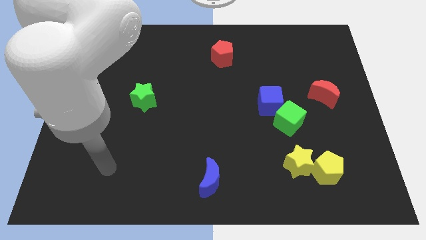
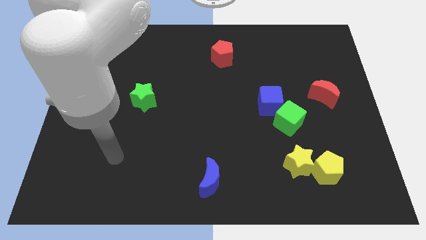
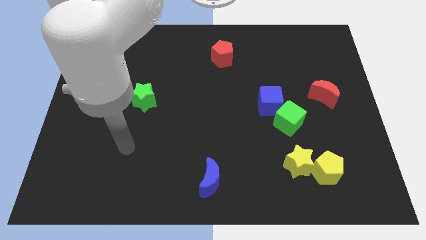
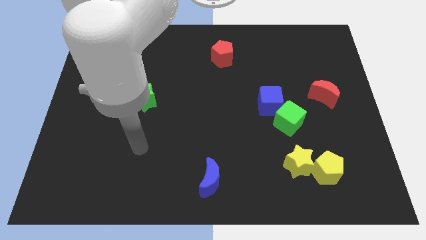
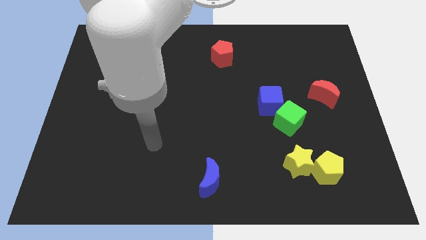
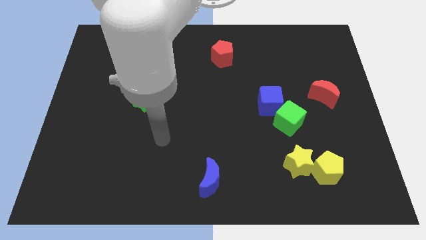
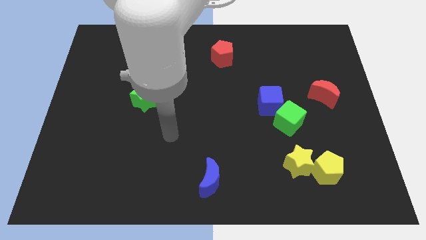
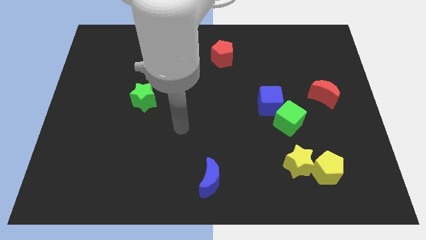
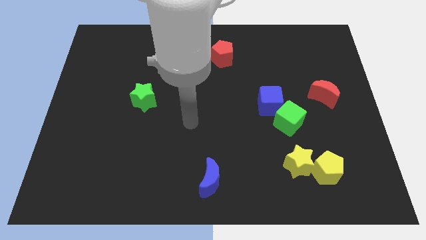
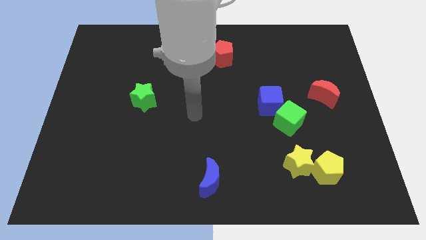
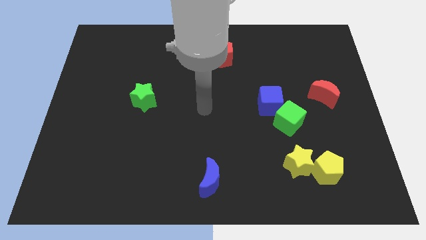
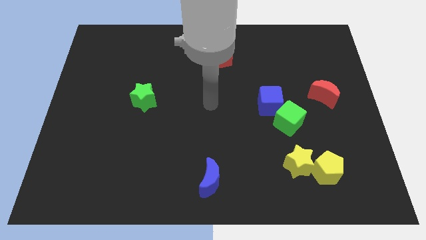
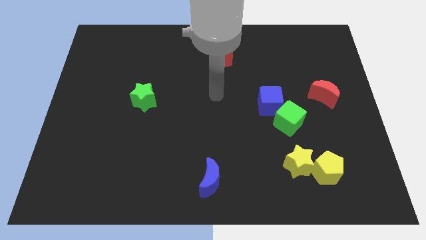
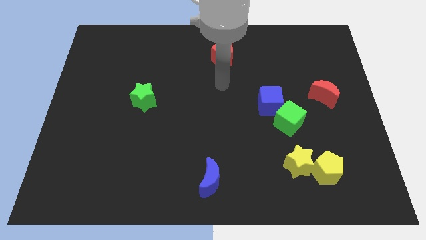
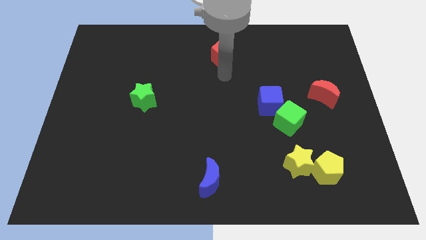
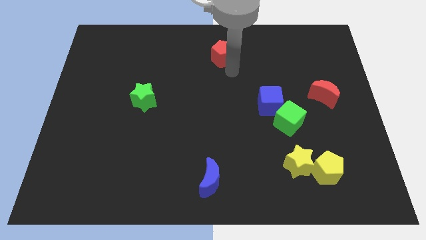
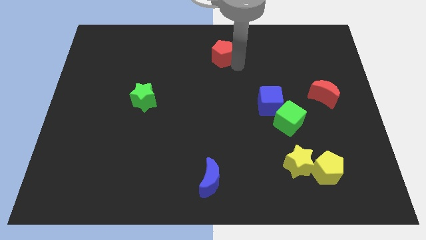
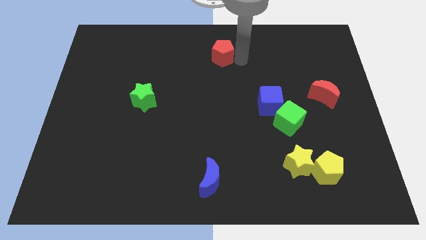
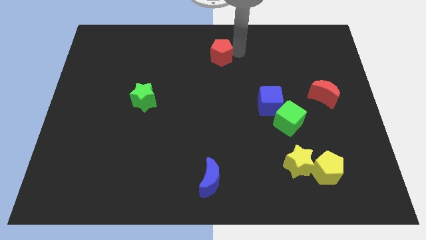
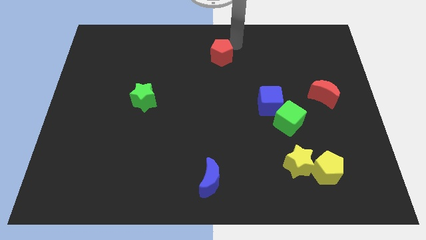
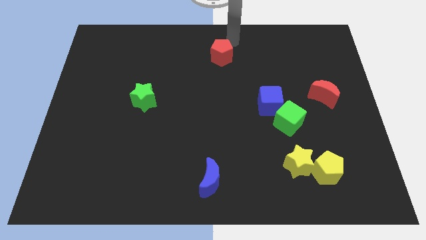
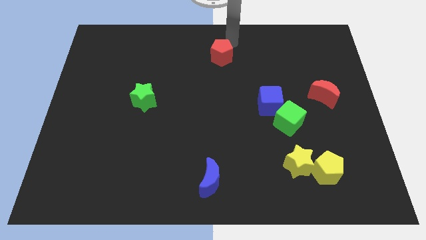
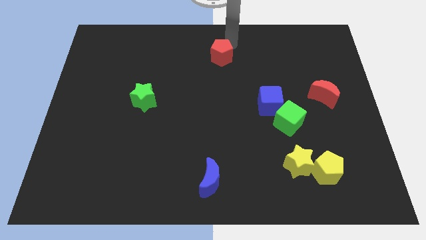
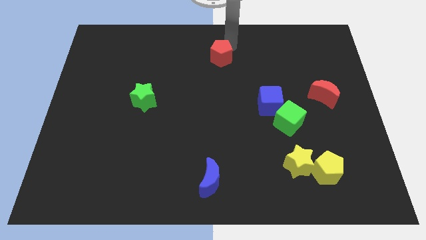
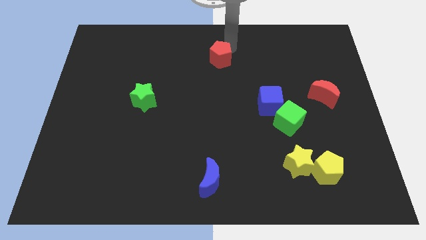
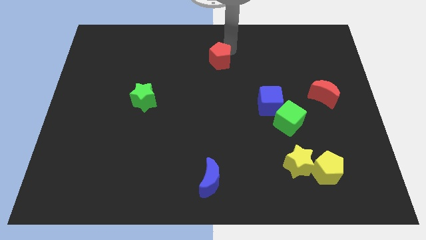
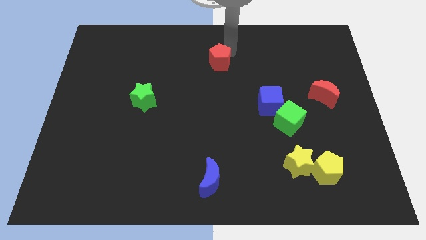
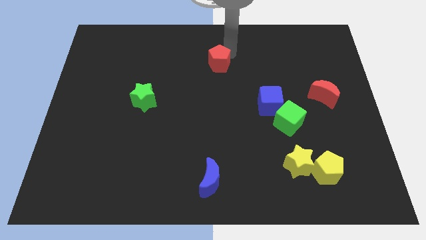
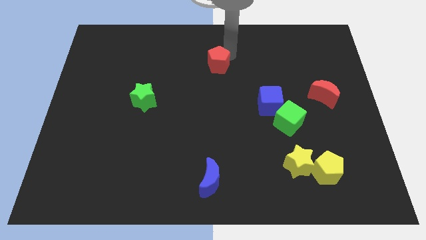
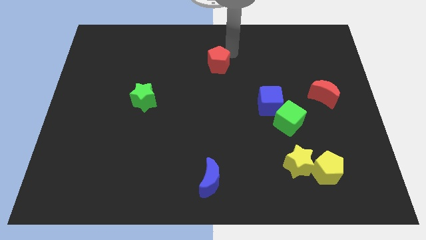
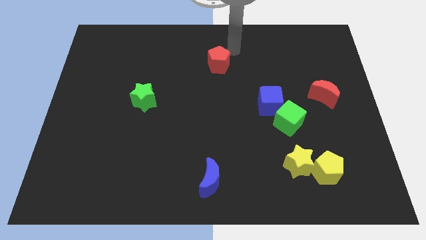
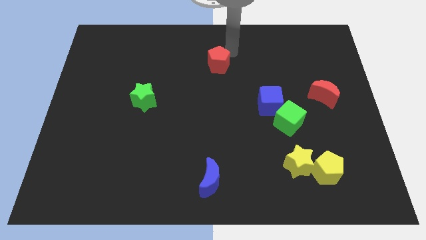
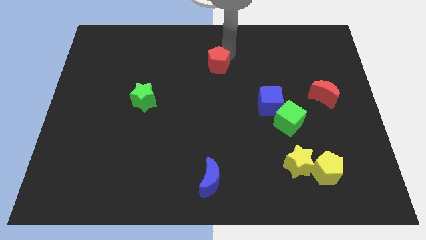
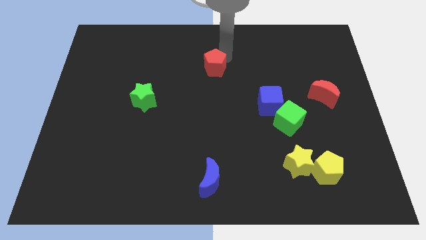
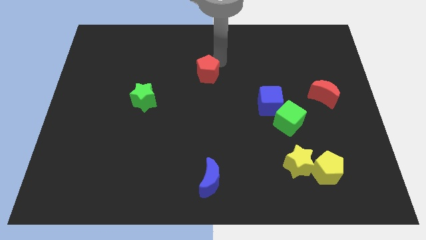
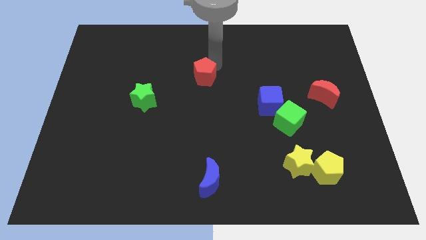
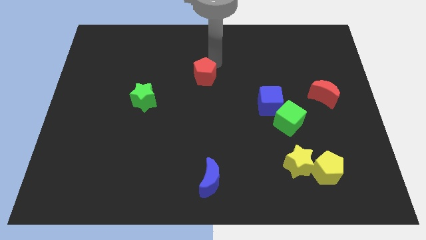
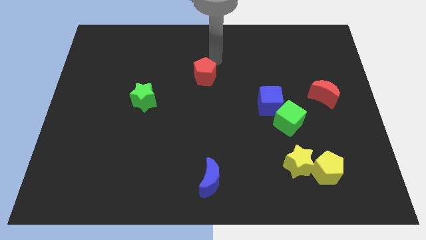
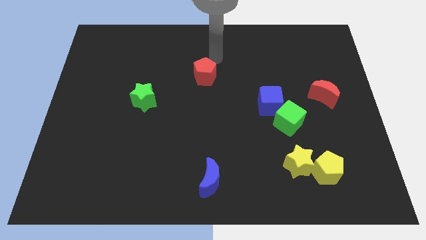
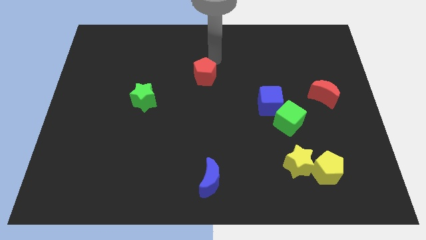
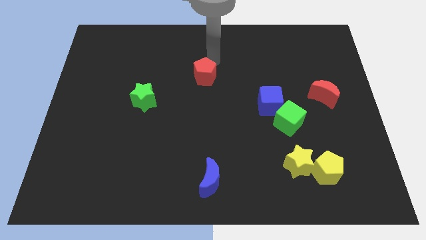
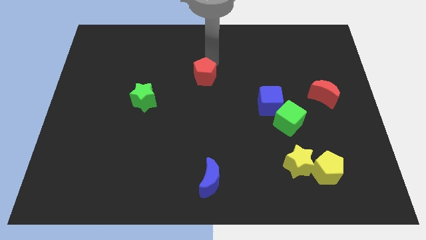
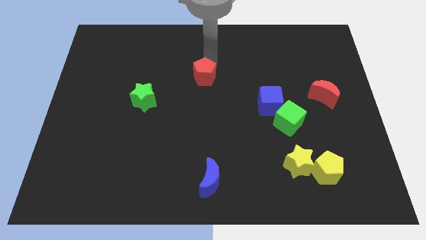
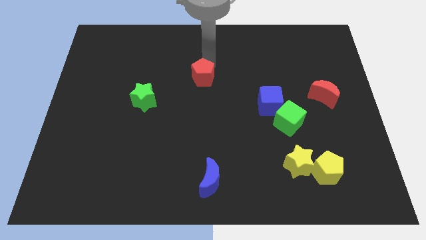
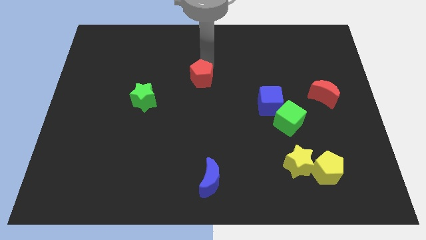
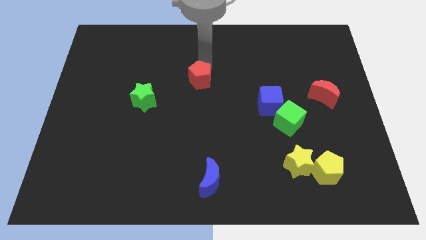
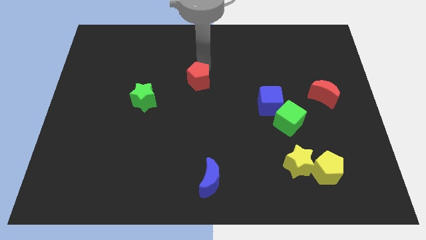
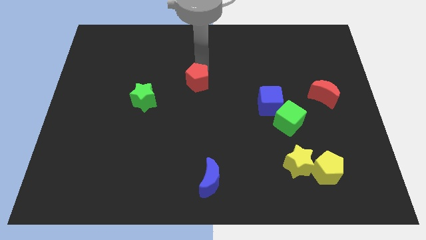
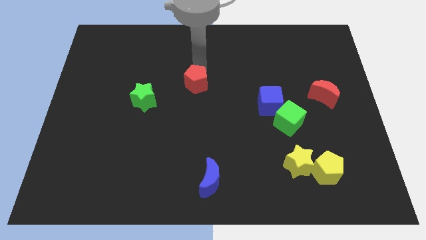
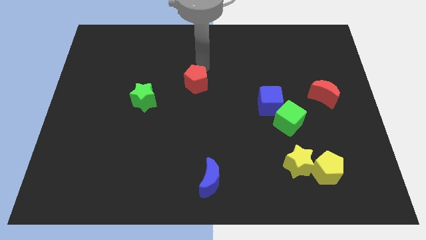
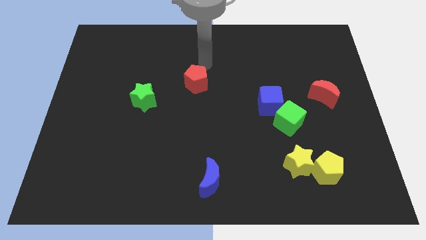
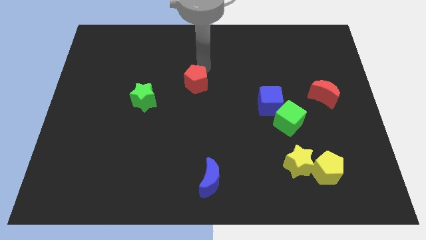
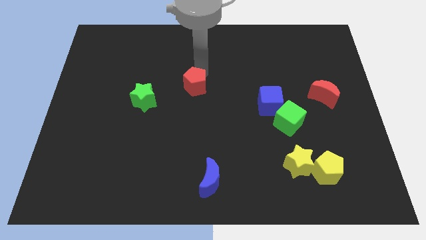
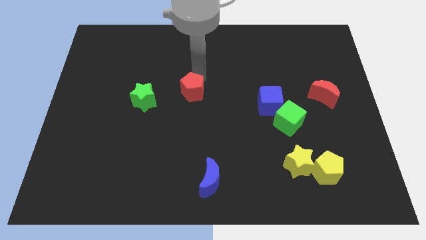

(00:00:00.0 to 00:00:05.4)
push the red pentagon to the right side of the green star

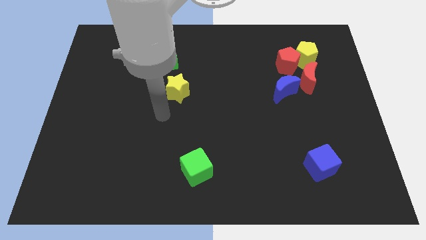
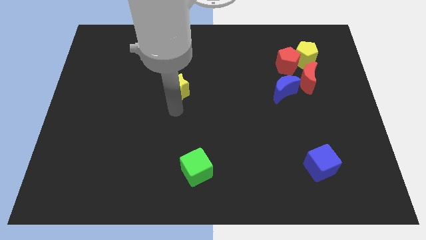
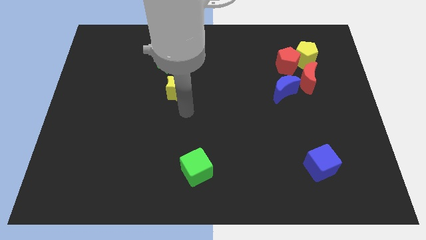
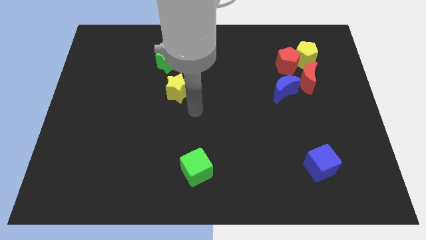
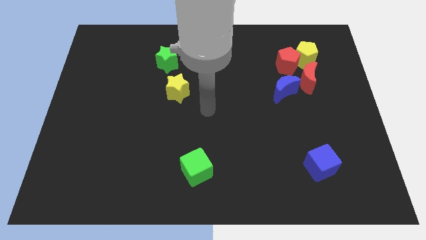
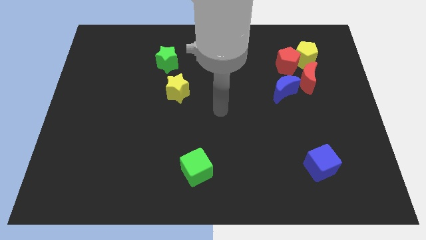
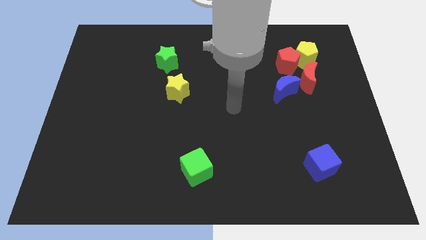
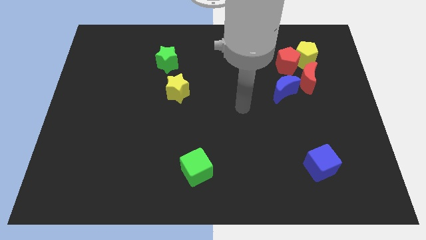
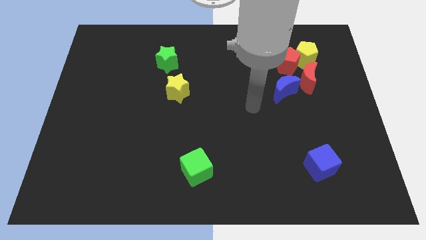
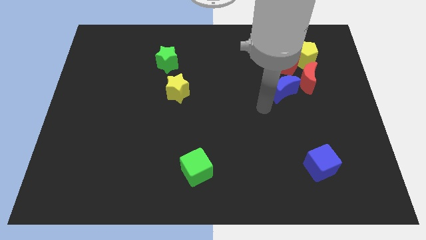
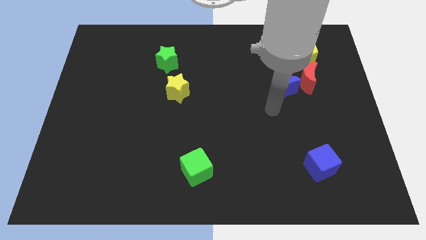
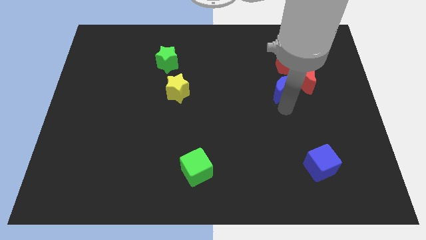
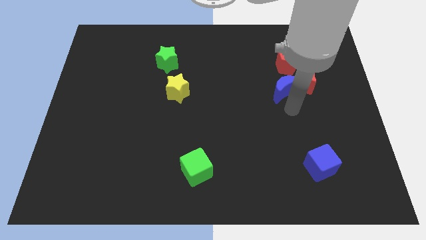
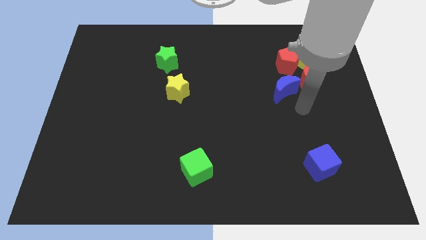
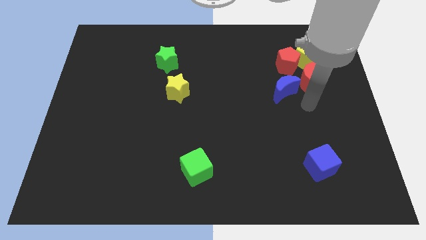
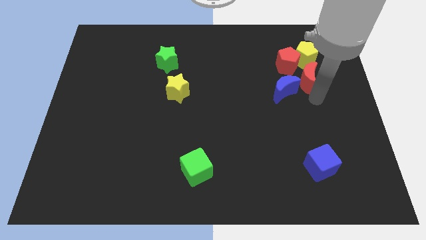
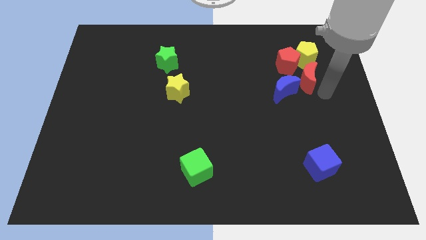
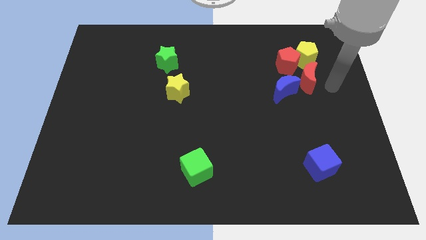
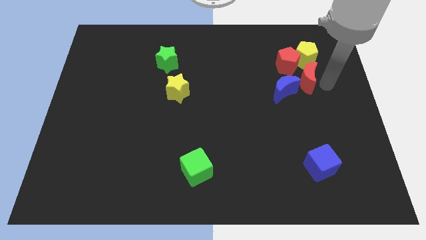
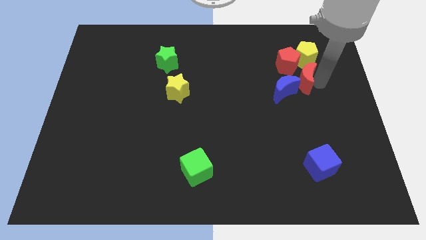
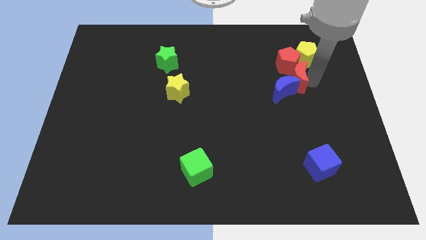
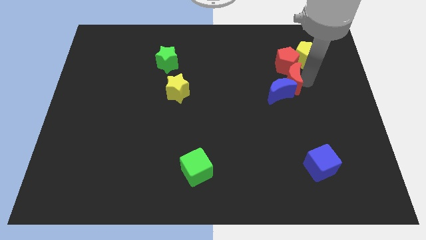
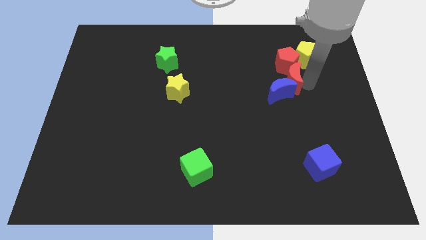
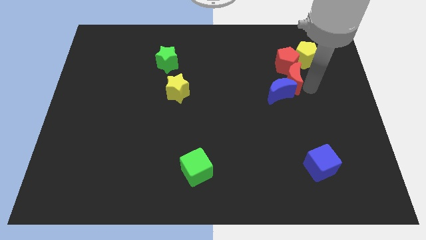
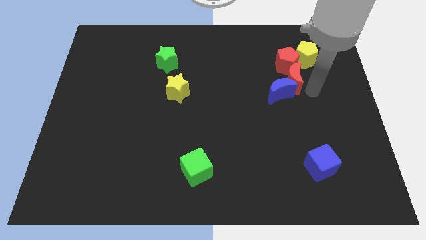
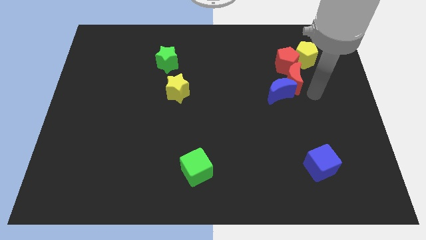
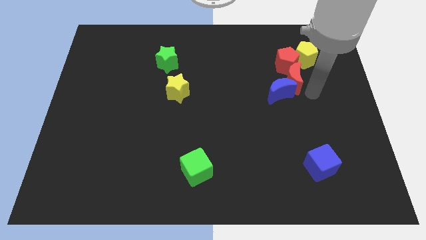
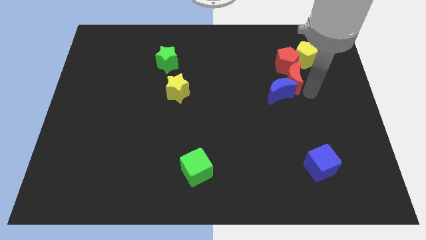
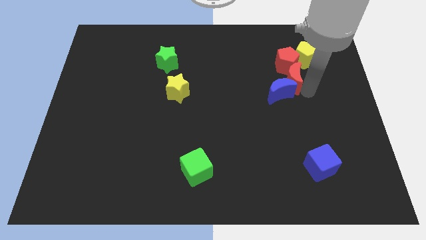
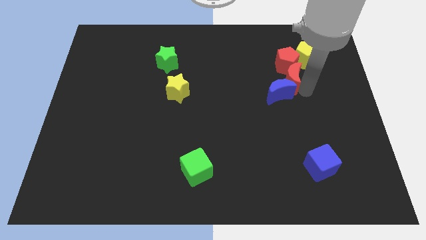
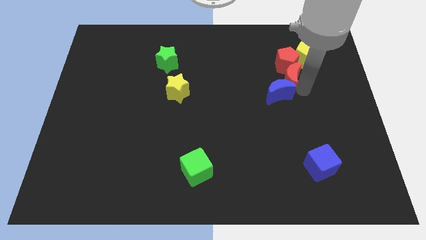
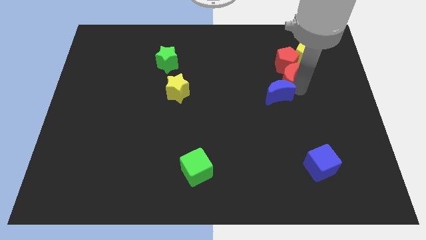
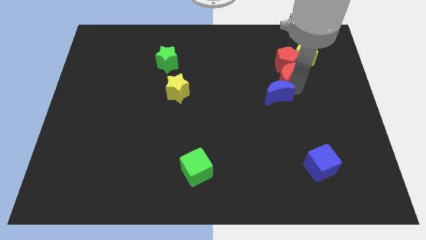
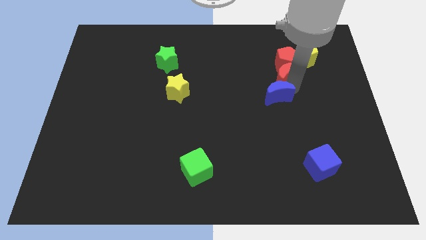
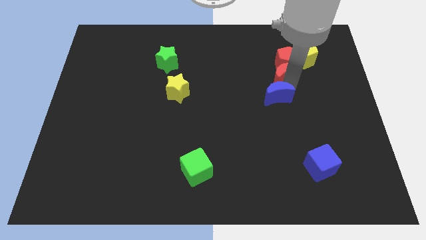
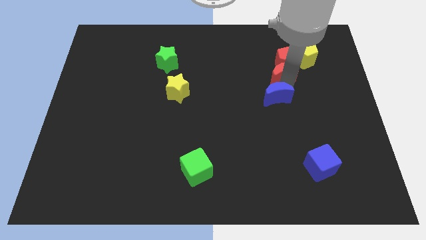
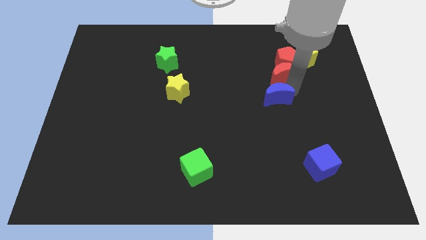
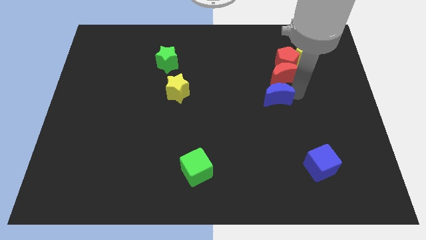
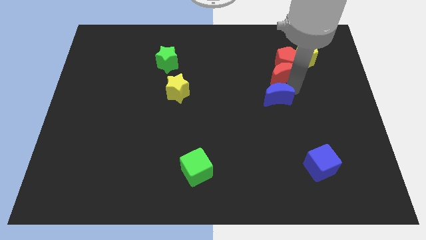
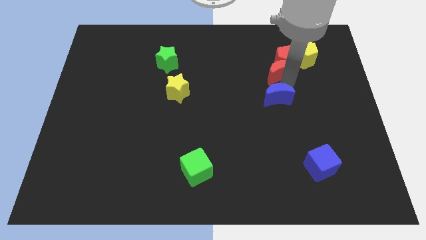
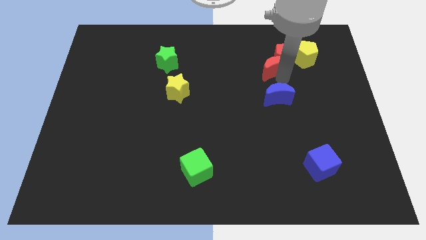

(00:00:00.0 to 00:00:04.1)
move the red moon to the left side of the yellow pentagon
